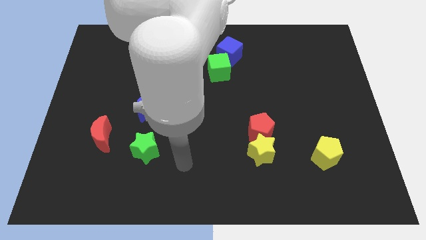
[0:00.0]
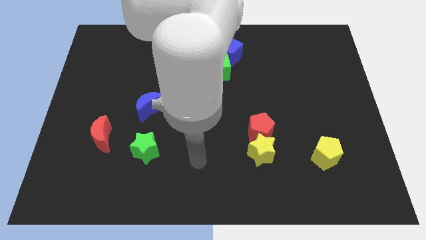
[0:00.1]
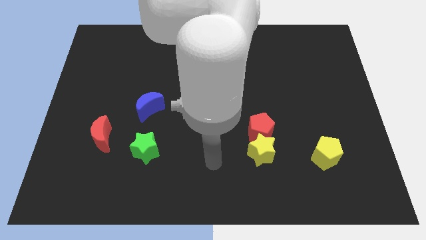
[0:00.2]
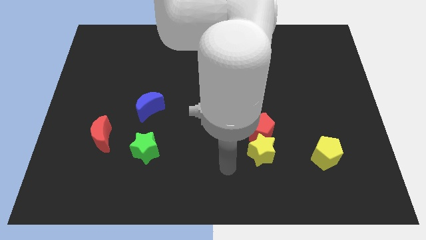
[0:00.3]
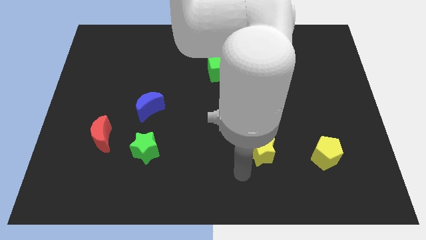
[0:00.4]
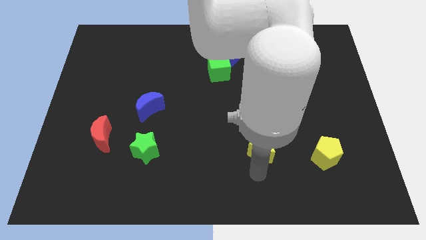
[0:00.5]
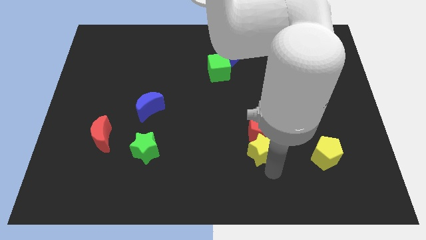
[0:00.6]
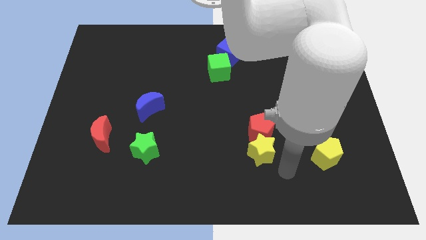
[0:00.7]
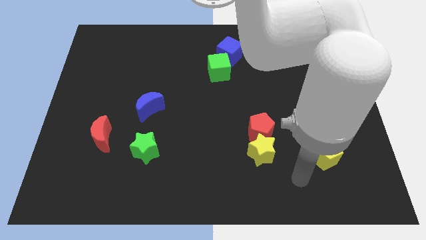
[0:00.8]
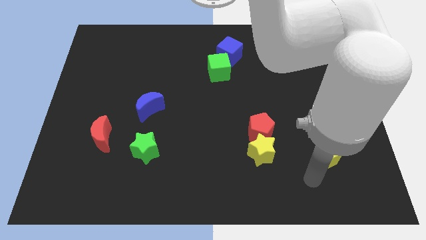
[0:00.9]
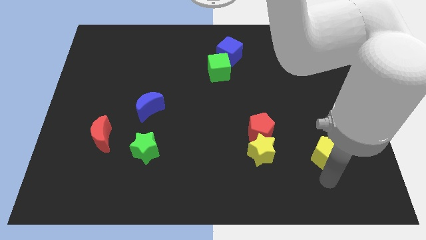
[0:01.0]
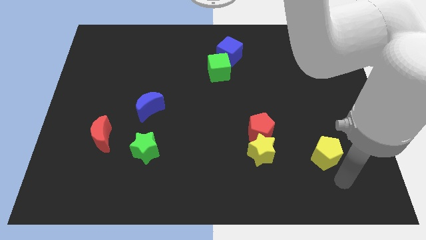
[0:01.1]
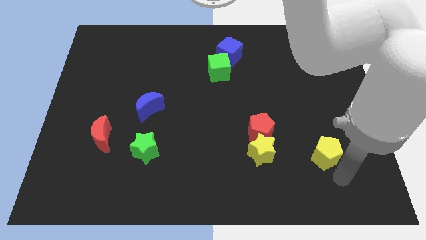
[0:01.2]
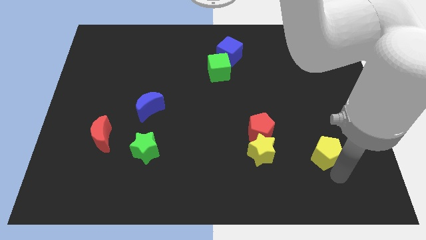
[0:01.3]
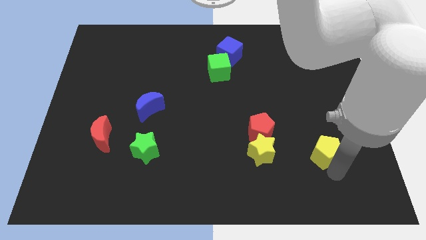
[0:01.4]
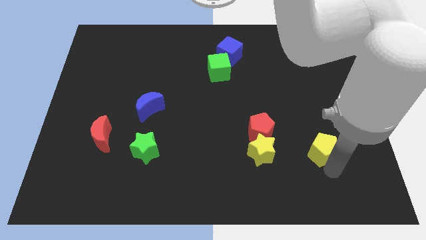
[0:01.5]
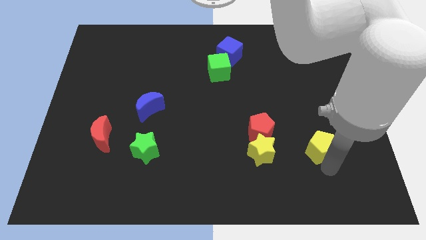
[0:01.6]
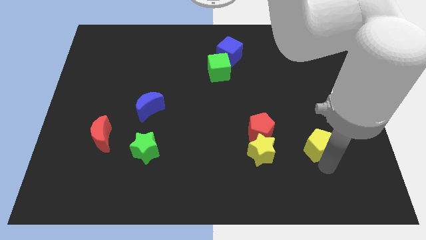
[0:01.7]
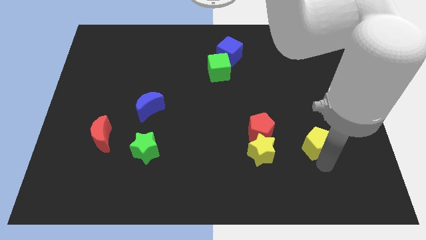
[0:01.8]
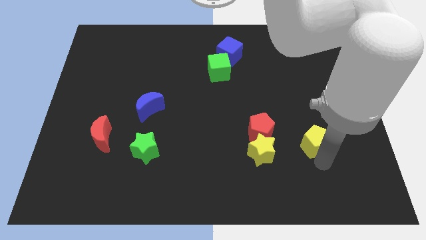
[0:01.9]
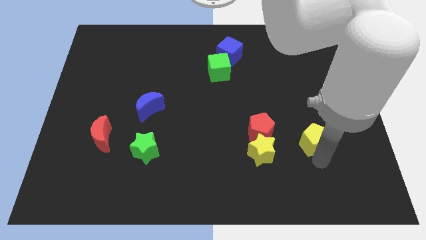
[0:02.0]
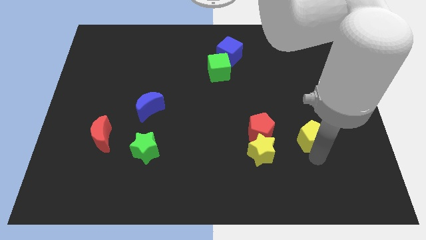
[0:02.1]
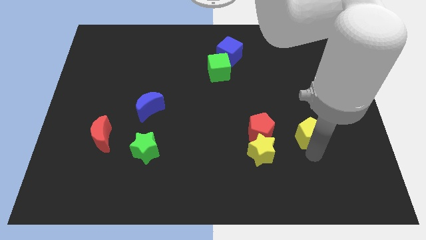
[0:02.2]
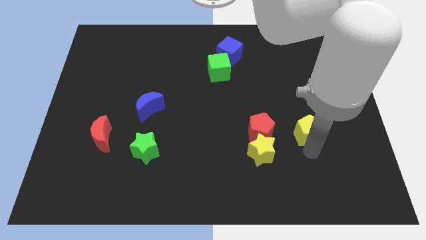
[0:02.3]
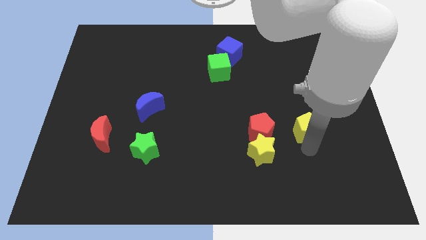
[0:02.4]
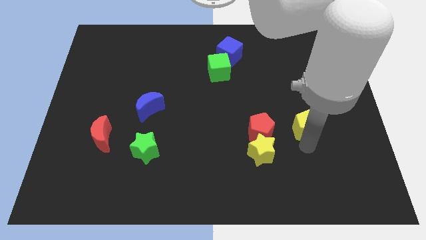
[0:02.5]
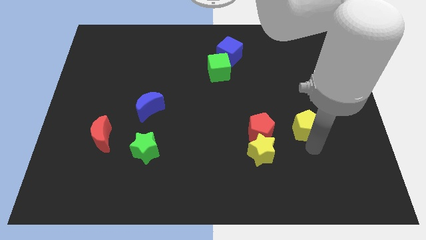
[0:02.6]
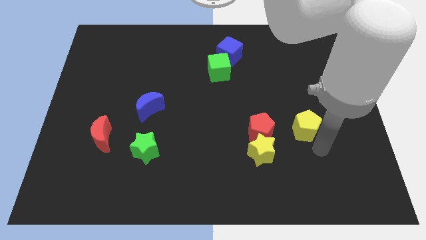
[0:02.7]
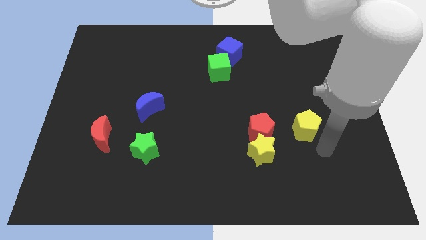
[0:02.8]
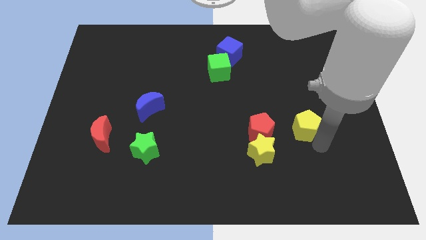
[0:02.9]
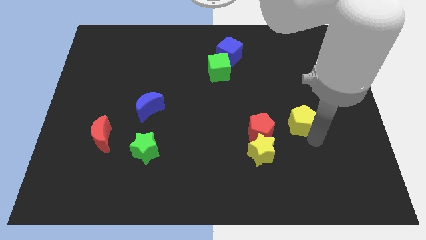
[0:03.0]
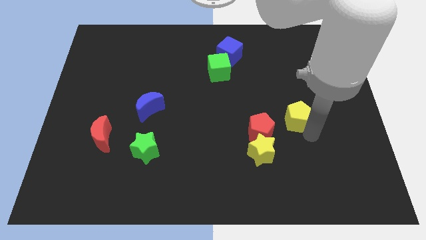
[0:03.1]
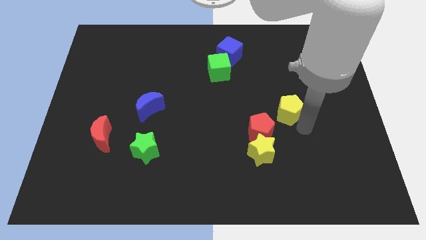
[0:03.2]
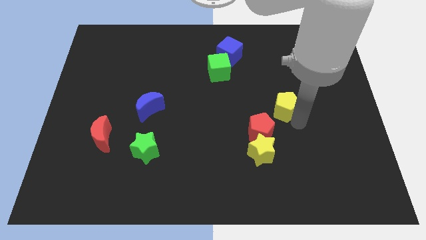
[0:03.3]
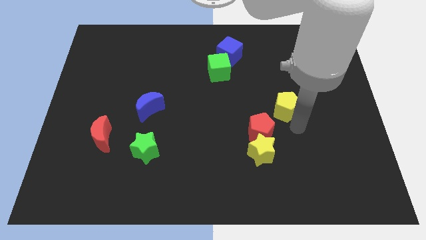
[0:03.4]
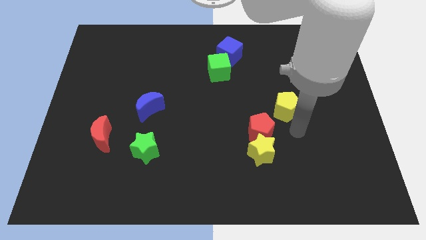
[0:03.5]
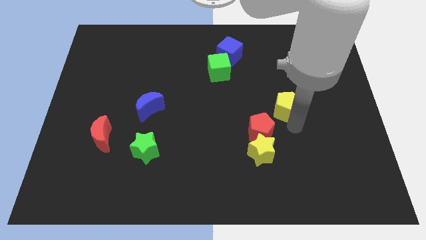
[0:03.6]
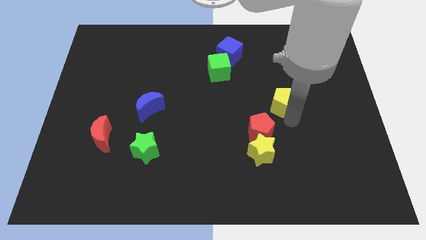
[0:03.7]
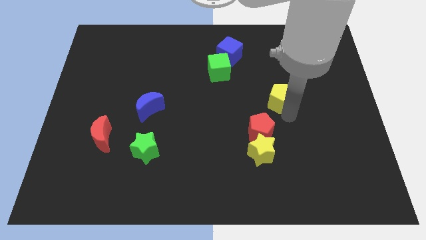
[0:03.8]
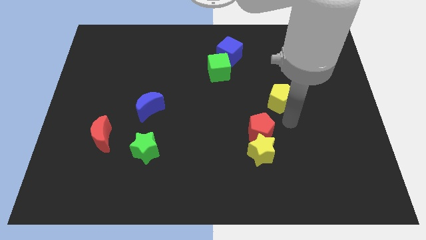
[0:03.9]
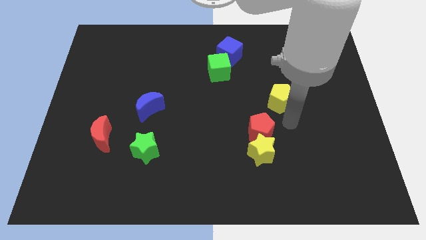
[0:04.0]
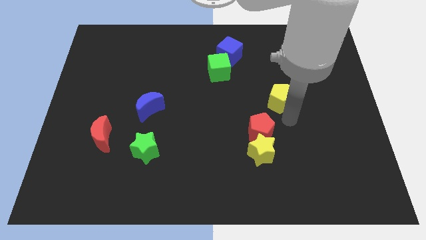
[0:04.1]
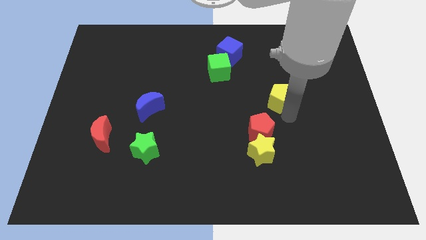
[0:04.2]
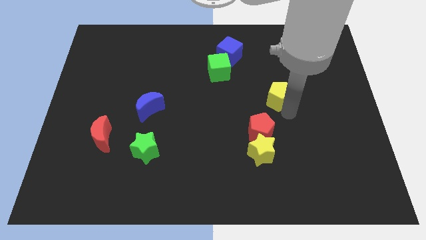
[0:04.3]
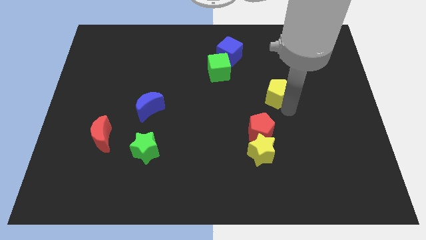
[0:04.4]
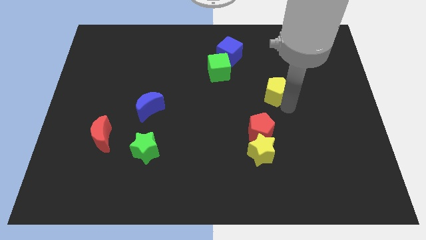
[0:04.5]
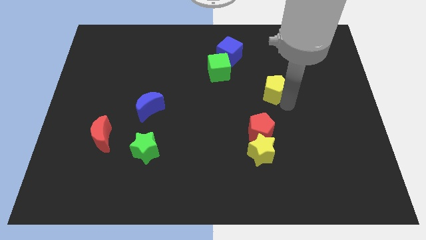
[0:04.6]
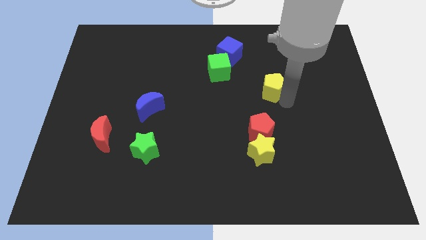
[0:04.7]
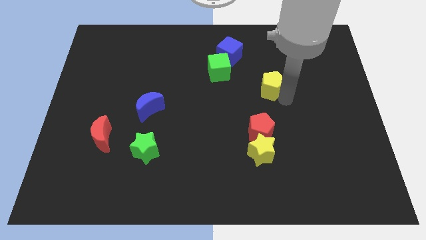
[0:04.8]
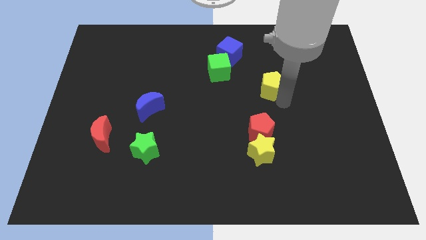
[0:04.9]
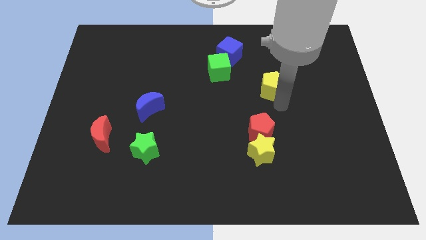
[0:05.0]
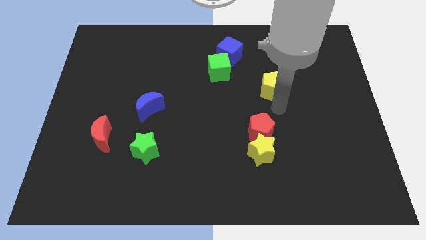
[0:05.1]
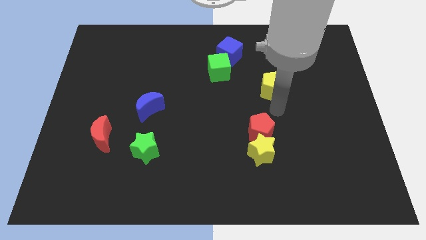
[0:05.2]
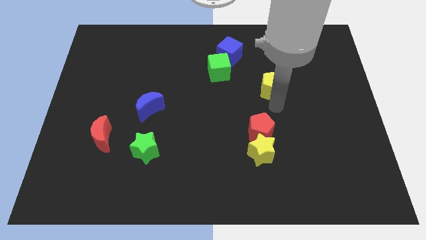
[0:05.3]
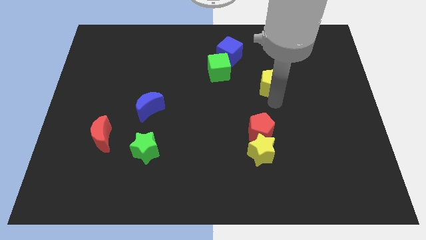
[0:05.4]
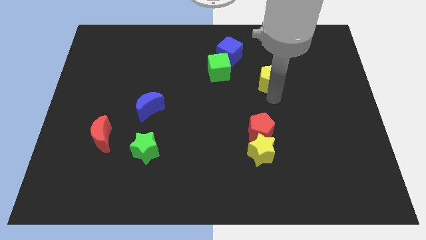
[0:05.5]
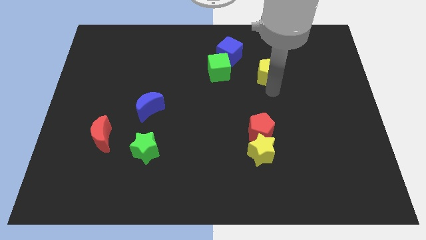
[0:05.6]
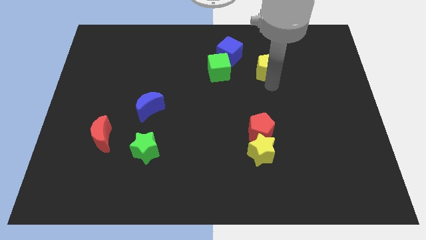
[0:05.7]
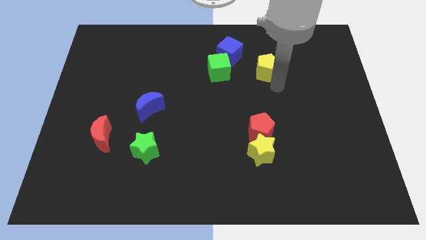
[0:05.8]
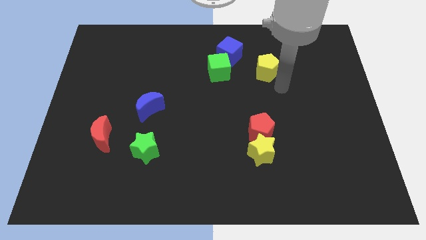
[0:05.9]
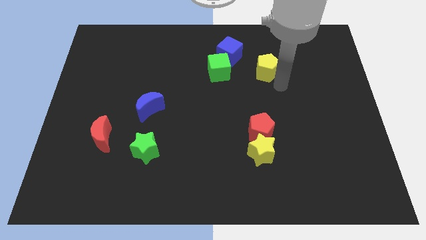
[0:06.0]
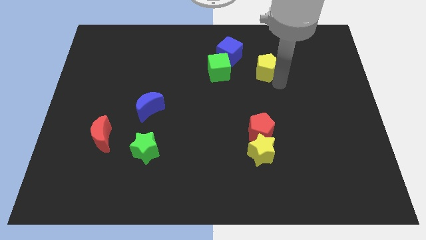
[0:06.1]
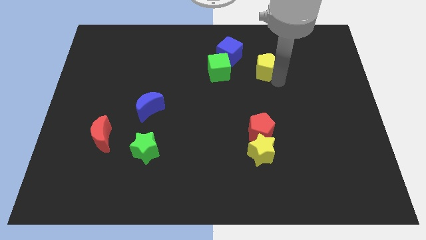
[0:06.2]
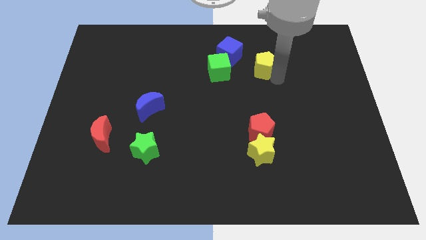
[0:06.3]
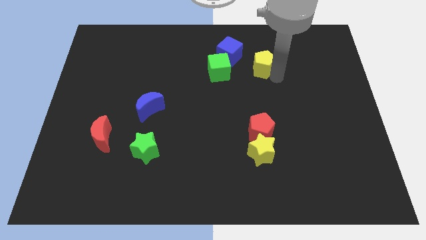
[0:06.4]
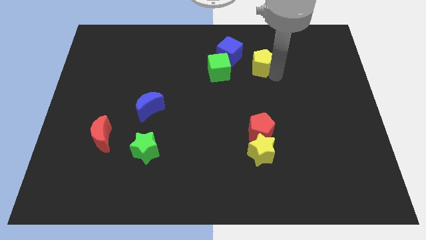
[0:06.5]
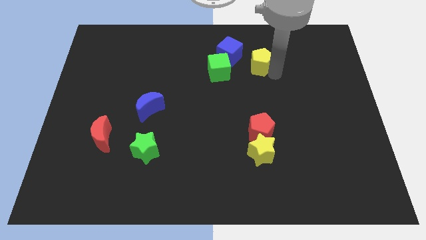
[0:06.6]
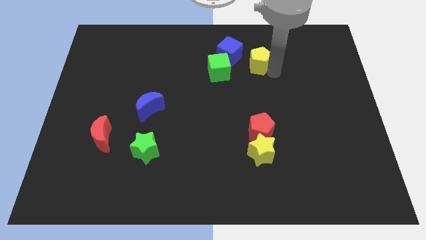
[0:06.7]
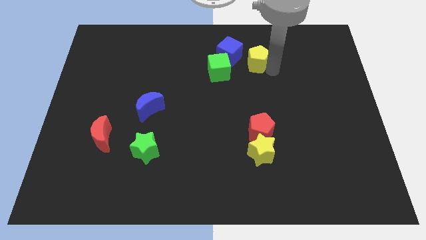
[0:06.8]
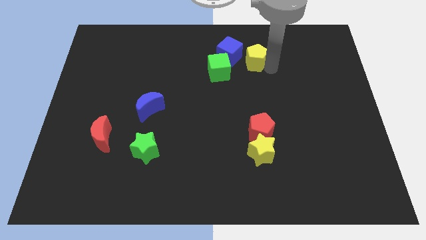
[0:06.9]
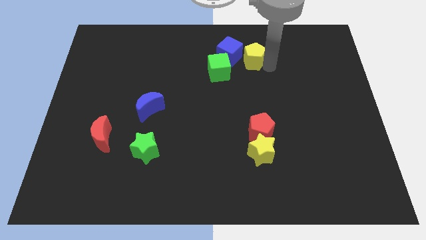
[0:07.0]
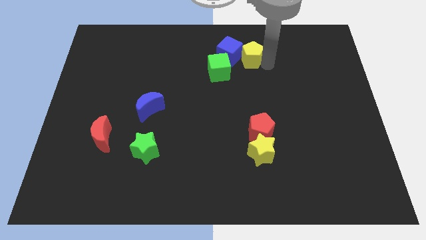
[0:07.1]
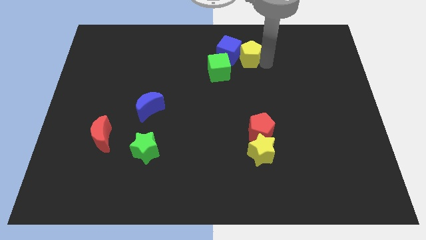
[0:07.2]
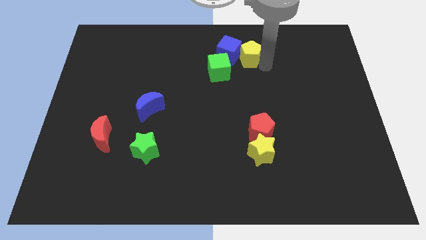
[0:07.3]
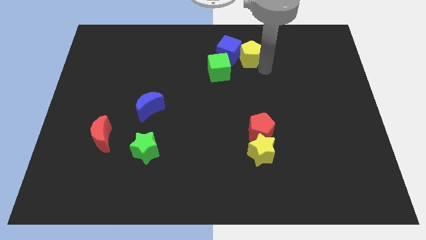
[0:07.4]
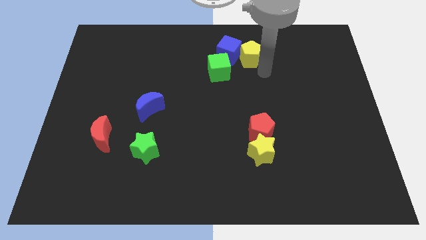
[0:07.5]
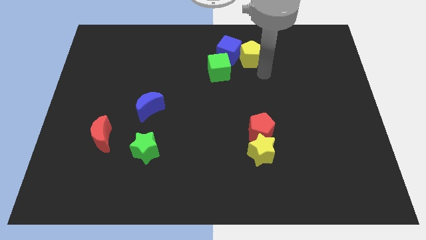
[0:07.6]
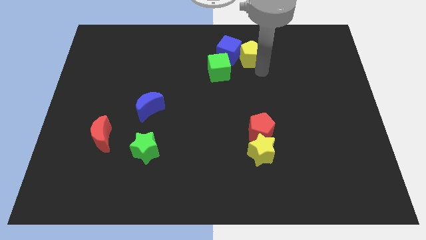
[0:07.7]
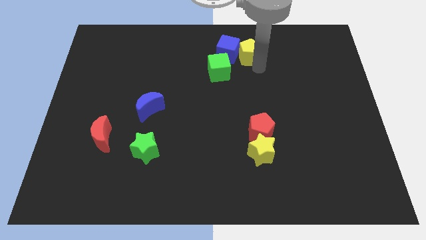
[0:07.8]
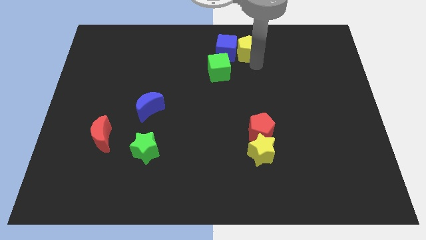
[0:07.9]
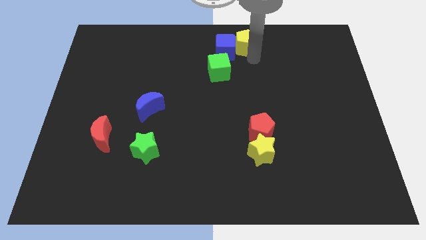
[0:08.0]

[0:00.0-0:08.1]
slide the yellow pentagon to the top
